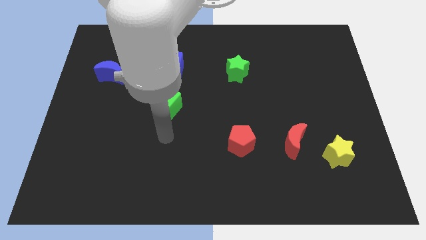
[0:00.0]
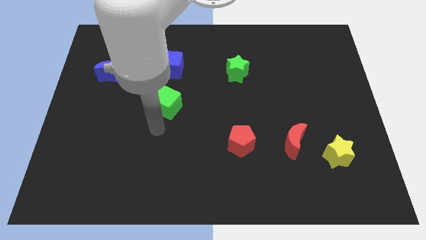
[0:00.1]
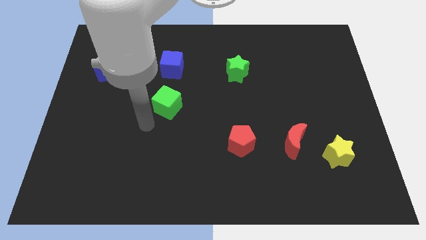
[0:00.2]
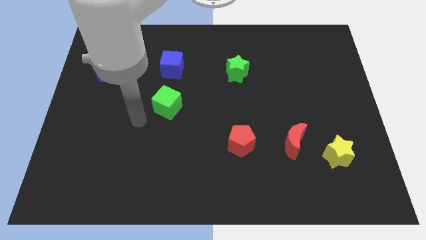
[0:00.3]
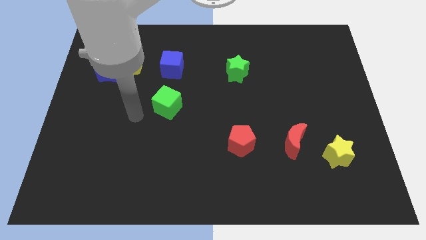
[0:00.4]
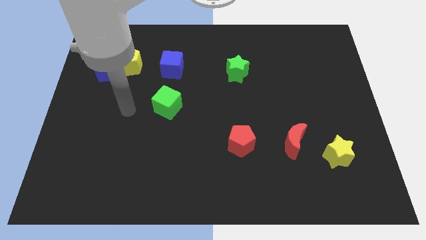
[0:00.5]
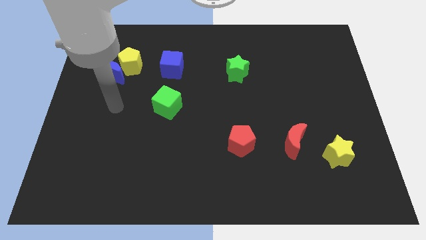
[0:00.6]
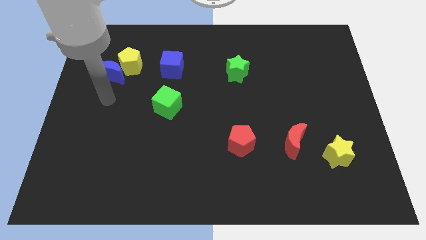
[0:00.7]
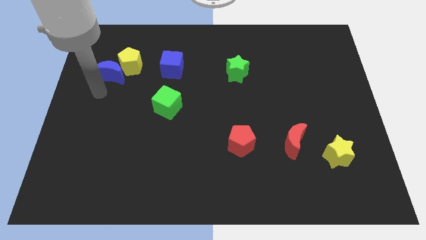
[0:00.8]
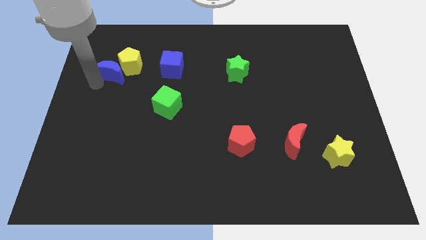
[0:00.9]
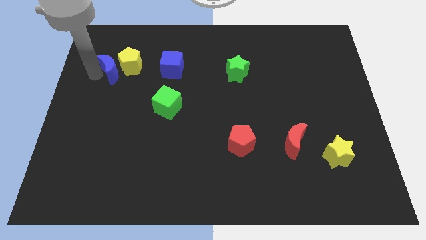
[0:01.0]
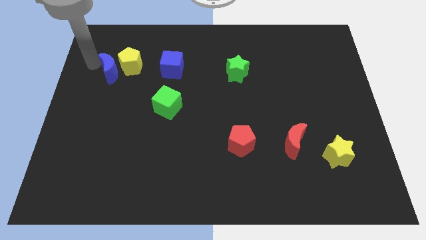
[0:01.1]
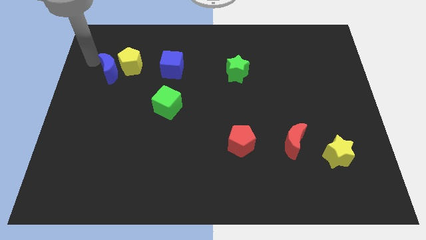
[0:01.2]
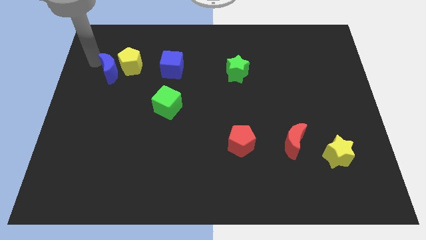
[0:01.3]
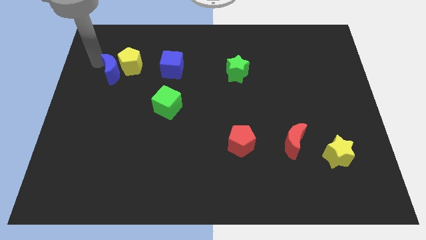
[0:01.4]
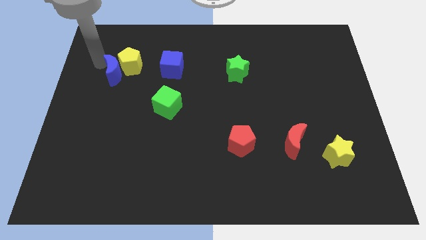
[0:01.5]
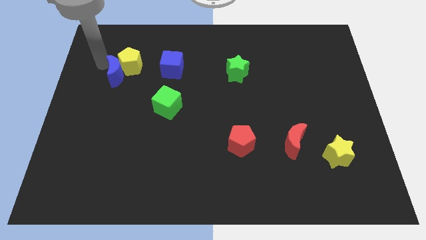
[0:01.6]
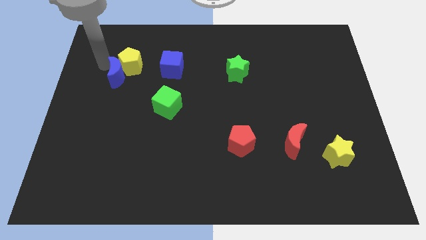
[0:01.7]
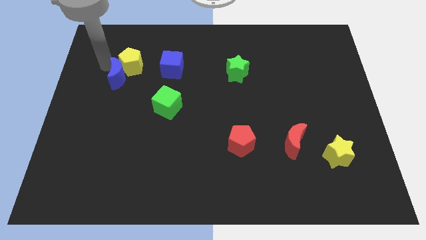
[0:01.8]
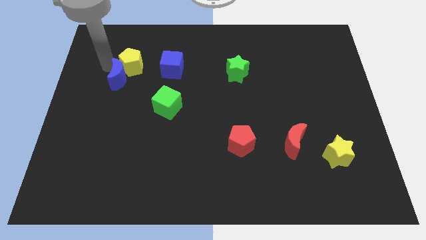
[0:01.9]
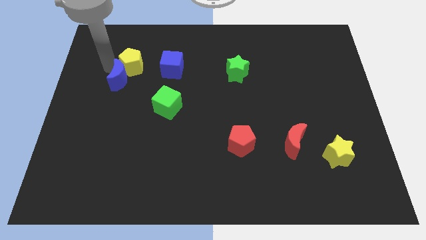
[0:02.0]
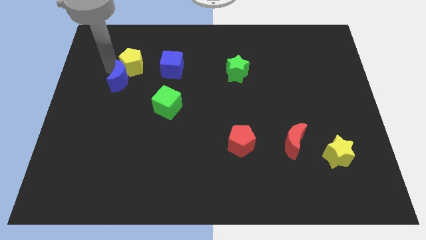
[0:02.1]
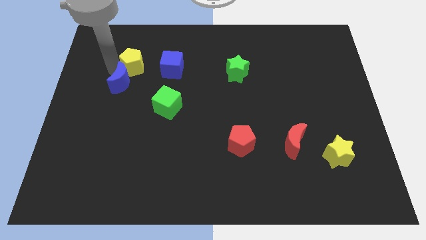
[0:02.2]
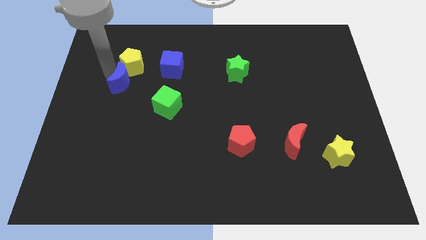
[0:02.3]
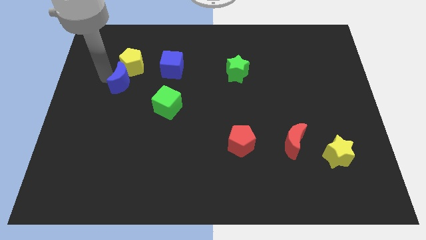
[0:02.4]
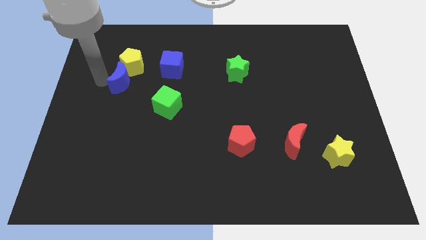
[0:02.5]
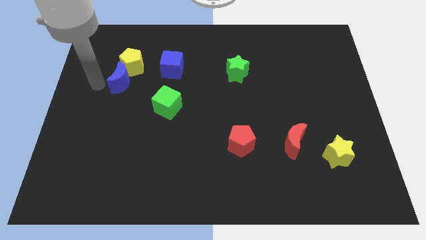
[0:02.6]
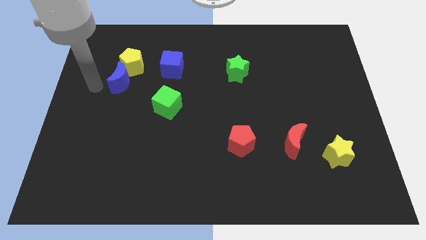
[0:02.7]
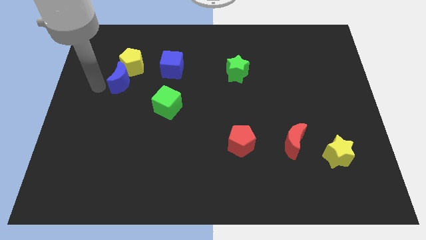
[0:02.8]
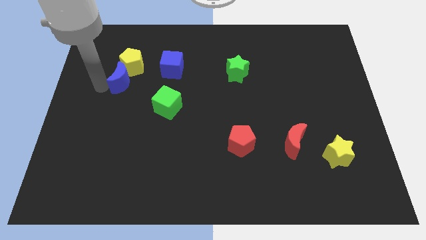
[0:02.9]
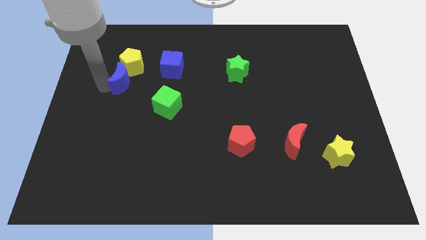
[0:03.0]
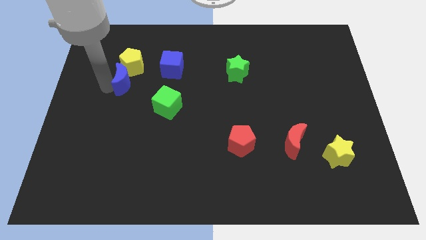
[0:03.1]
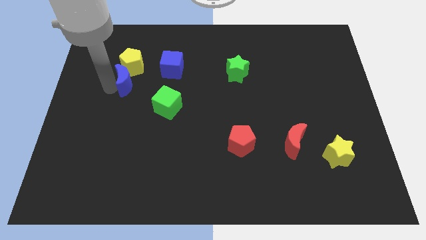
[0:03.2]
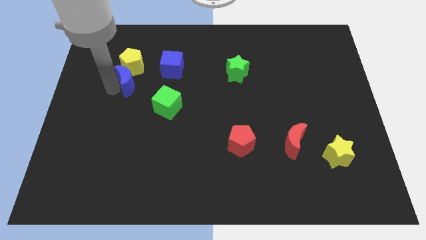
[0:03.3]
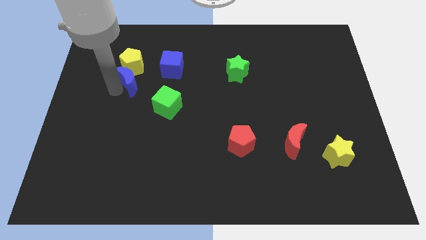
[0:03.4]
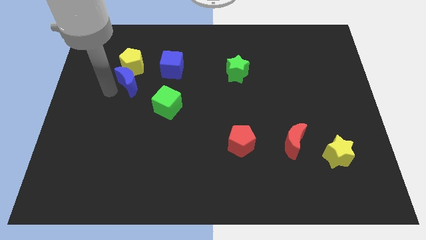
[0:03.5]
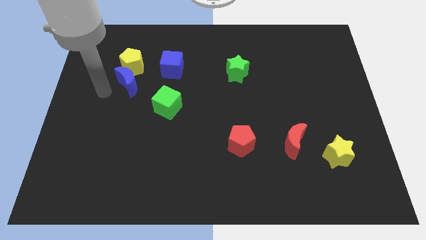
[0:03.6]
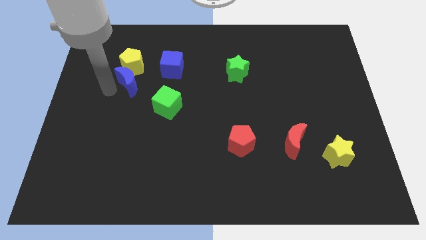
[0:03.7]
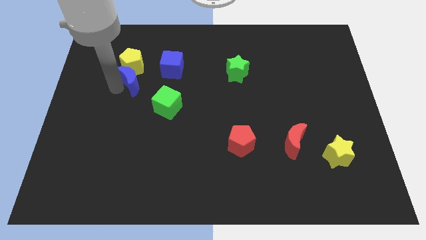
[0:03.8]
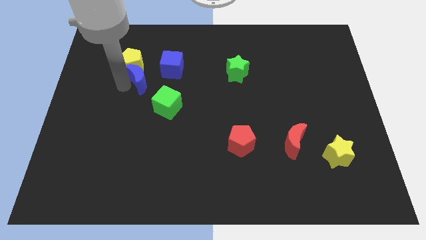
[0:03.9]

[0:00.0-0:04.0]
slightly slide the blue moon to the right

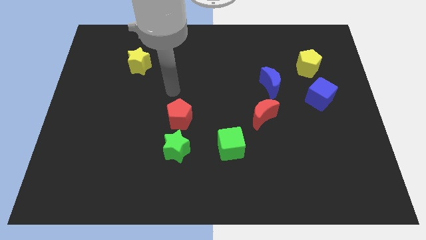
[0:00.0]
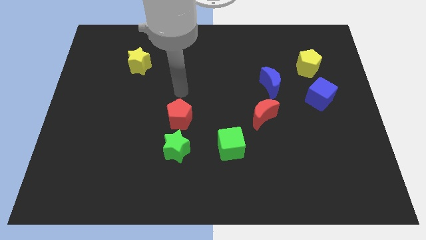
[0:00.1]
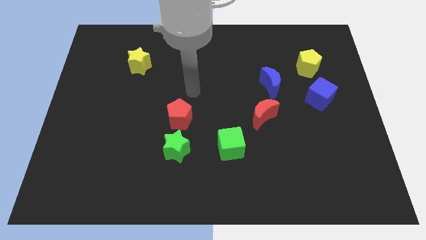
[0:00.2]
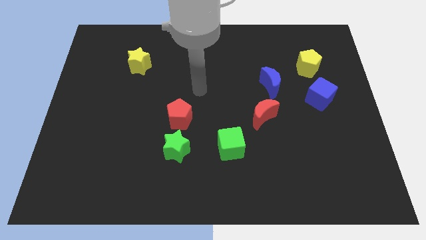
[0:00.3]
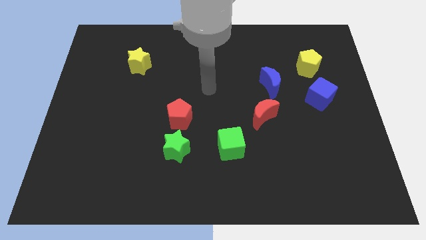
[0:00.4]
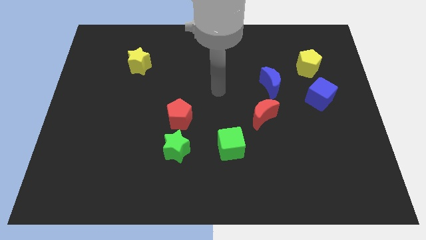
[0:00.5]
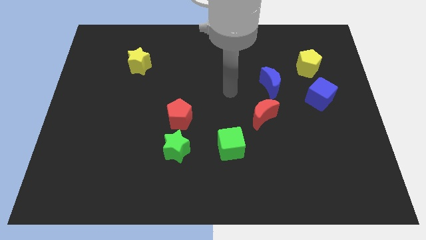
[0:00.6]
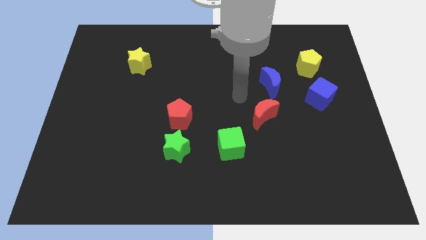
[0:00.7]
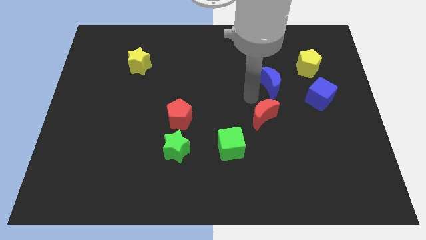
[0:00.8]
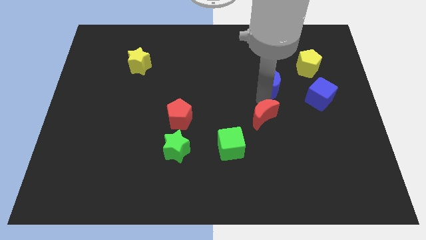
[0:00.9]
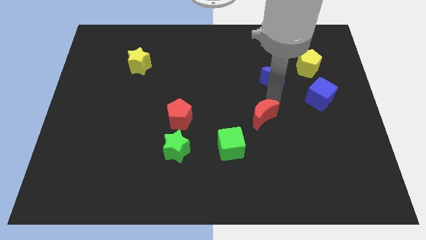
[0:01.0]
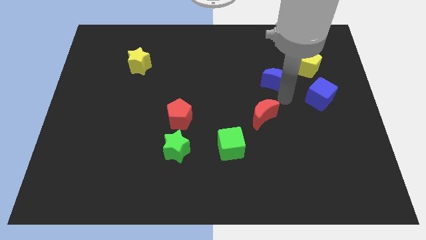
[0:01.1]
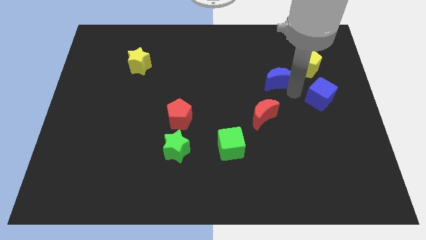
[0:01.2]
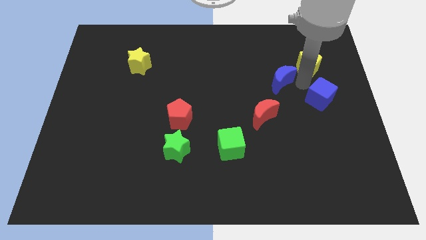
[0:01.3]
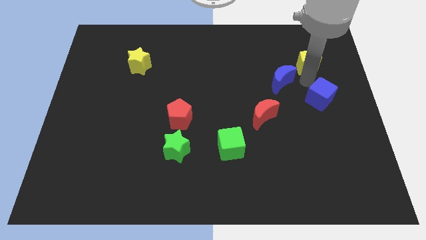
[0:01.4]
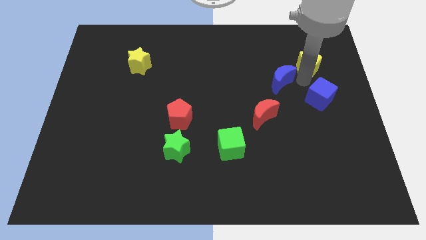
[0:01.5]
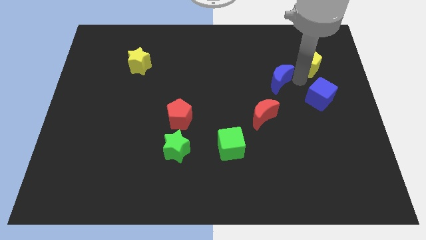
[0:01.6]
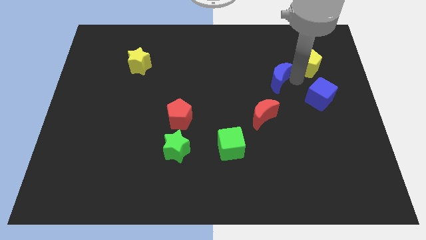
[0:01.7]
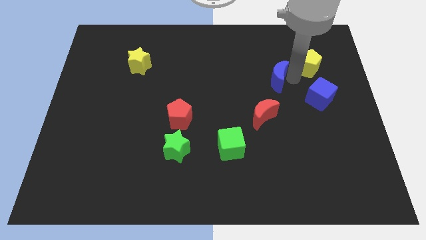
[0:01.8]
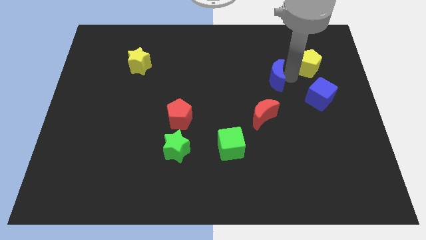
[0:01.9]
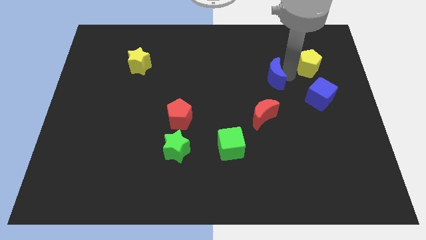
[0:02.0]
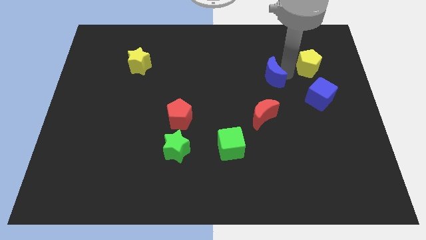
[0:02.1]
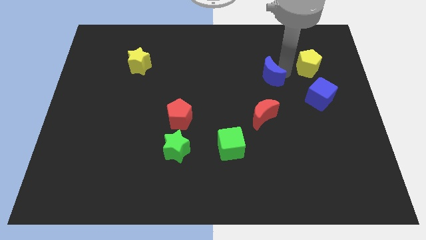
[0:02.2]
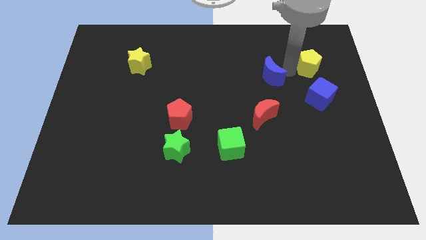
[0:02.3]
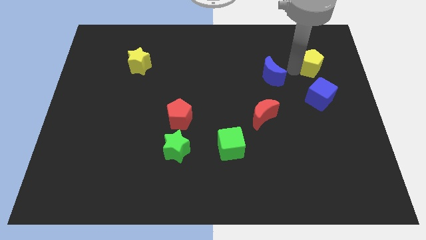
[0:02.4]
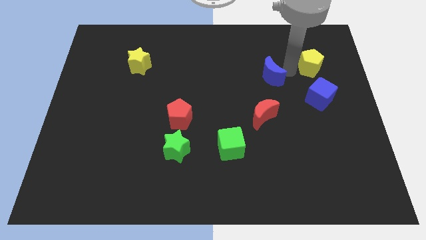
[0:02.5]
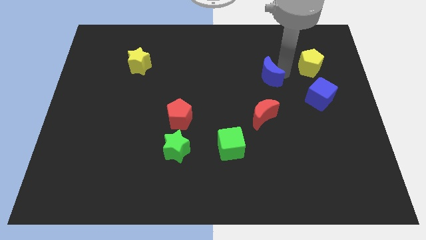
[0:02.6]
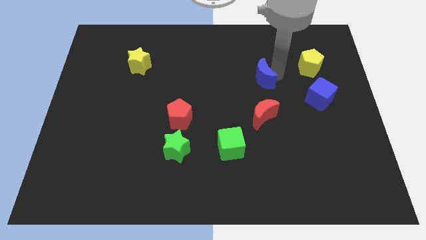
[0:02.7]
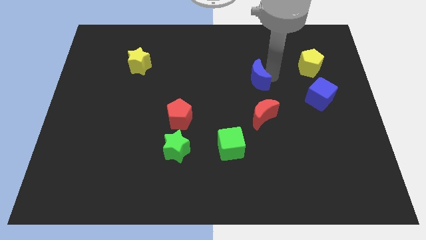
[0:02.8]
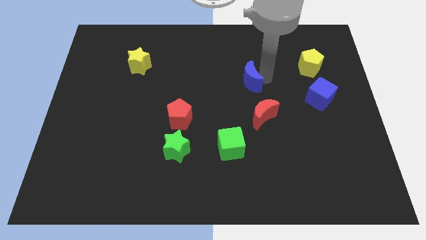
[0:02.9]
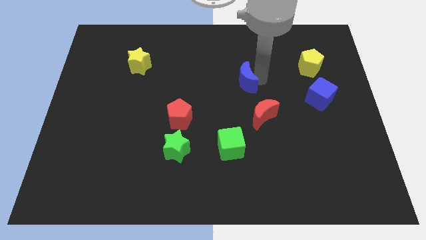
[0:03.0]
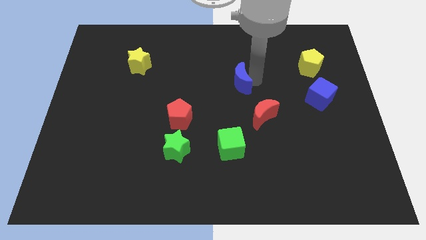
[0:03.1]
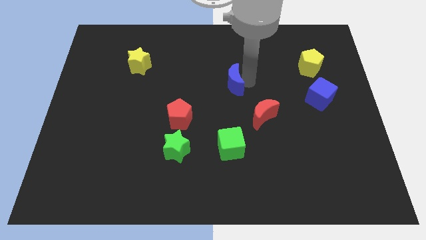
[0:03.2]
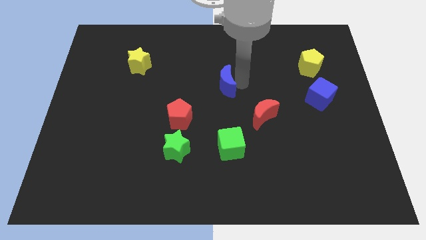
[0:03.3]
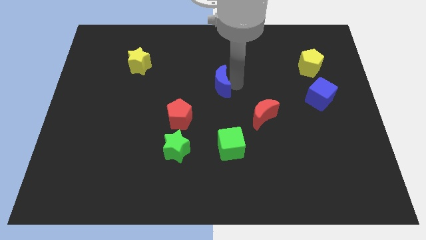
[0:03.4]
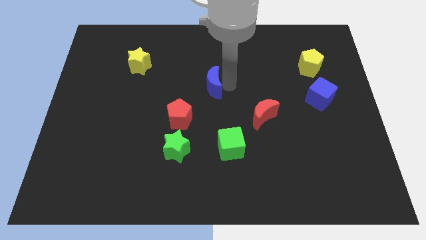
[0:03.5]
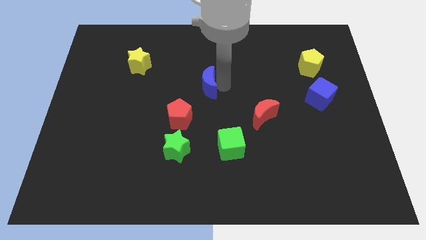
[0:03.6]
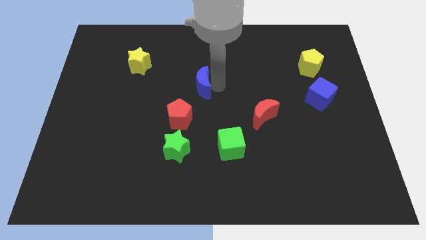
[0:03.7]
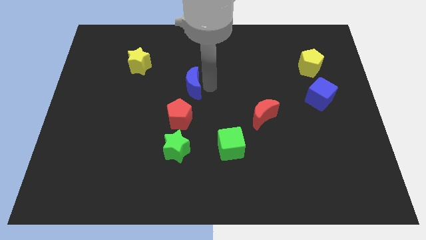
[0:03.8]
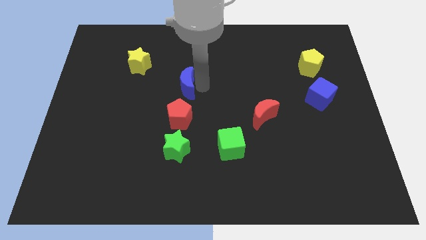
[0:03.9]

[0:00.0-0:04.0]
slide the blue moon to the left
